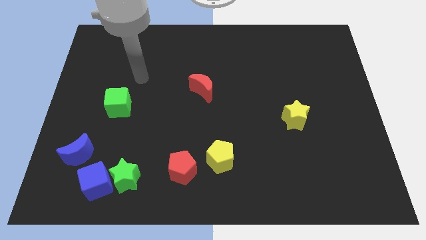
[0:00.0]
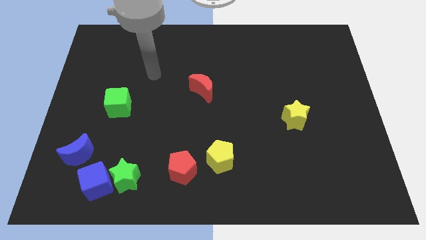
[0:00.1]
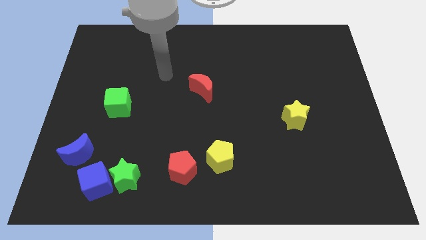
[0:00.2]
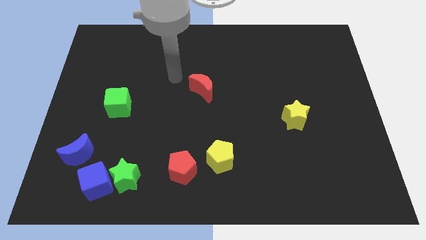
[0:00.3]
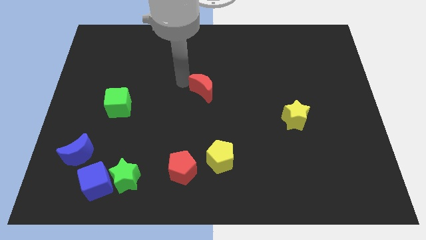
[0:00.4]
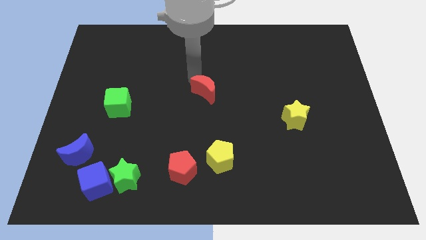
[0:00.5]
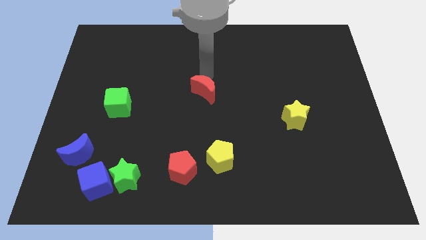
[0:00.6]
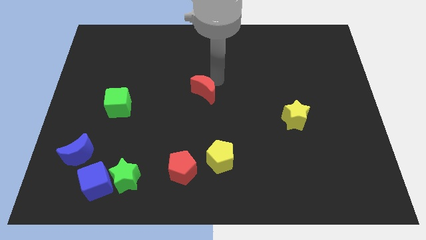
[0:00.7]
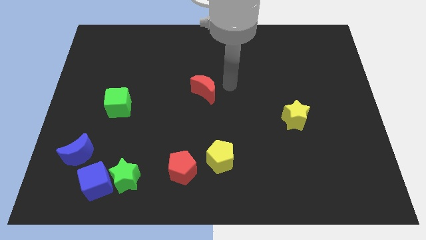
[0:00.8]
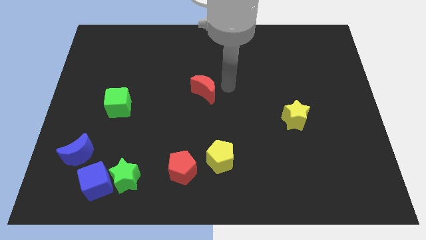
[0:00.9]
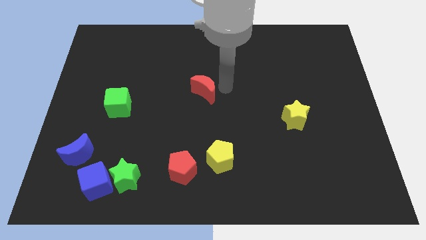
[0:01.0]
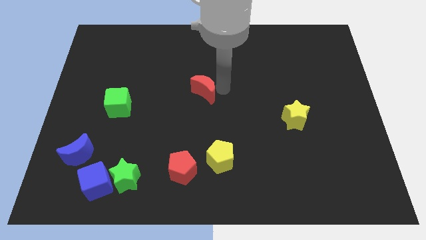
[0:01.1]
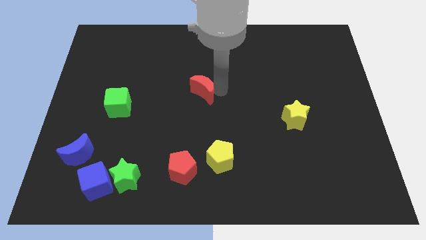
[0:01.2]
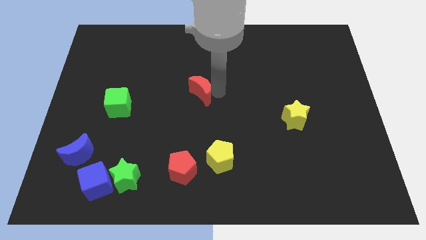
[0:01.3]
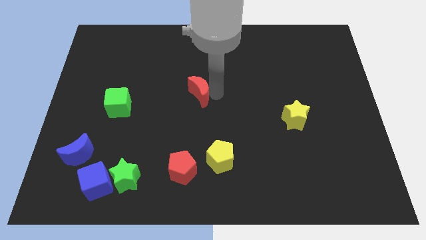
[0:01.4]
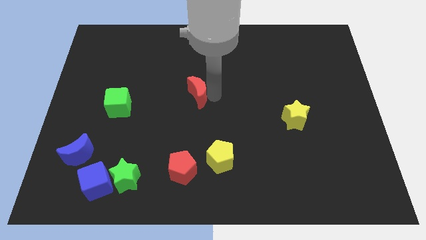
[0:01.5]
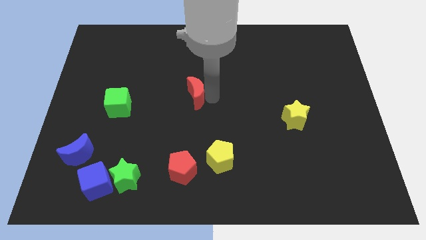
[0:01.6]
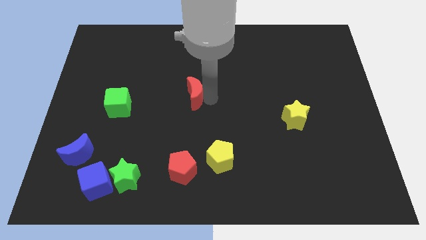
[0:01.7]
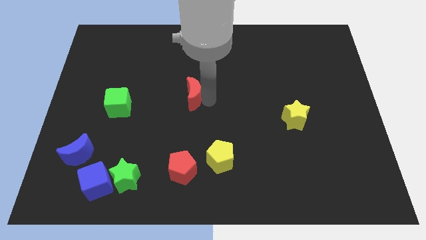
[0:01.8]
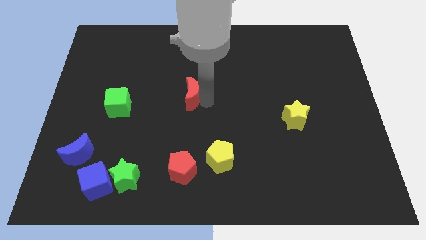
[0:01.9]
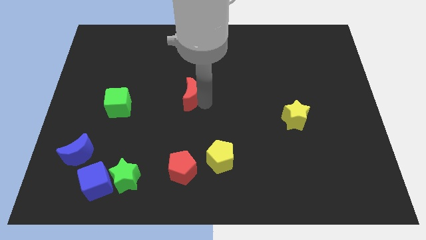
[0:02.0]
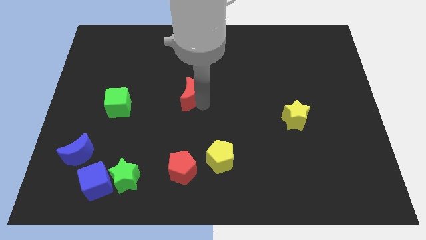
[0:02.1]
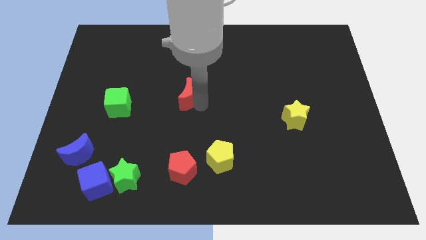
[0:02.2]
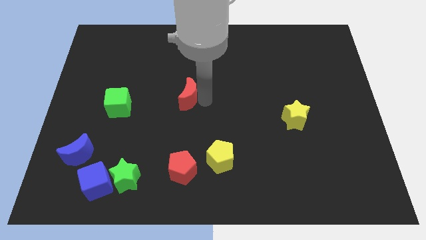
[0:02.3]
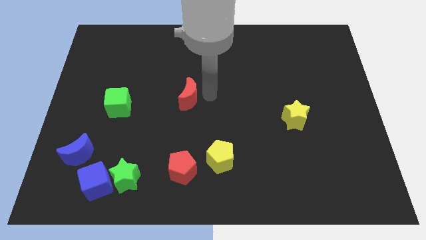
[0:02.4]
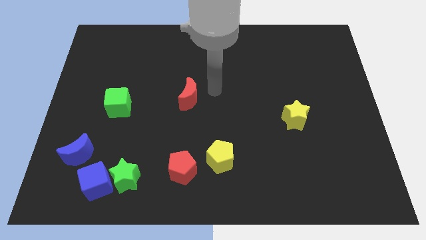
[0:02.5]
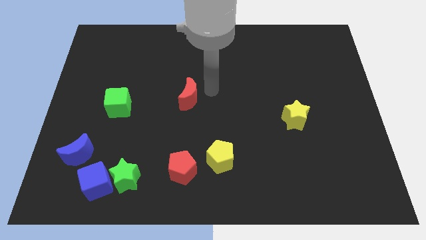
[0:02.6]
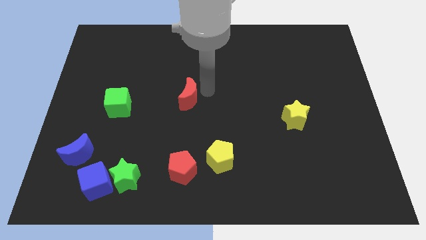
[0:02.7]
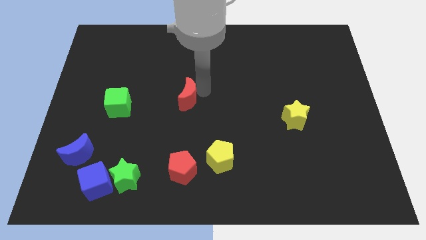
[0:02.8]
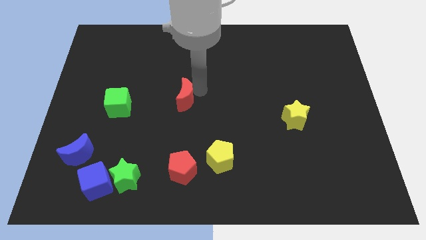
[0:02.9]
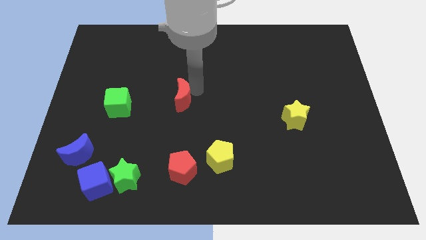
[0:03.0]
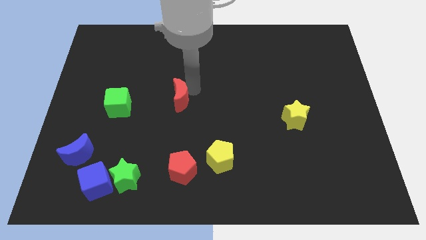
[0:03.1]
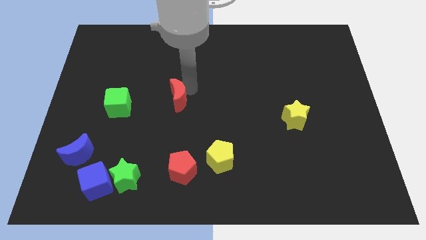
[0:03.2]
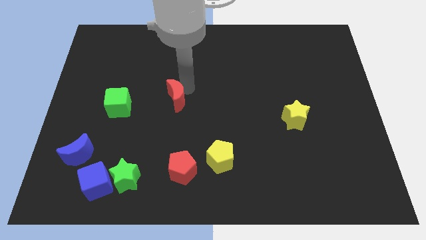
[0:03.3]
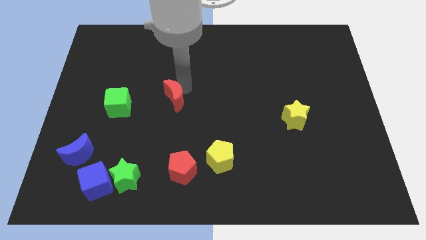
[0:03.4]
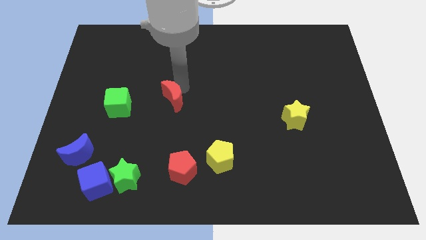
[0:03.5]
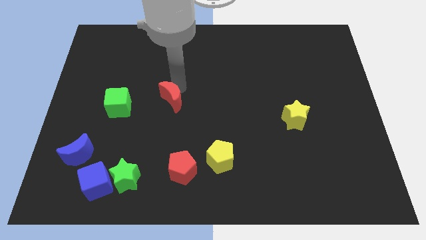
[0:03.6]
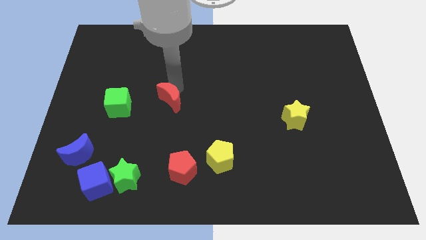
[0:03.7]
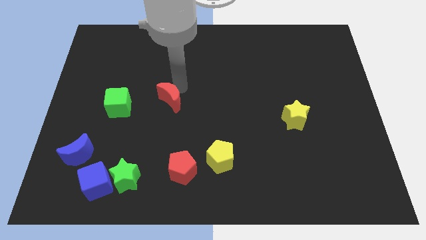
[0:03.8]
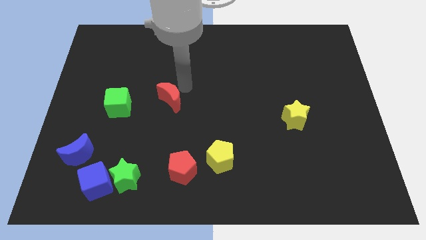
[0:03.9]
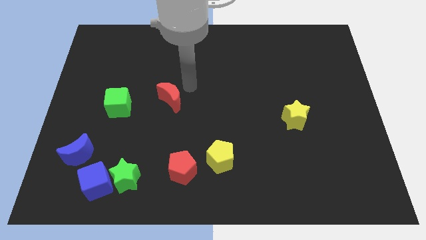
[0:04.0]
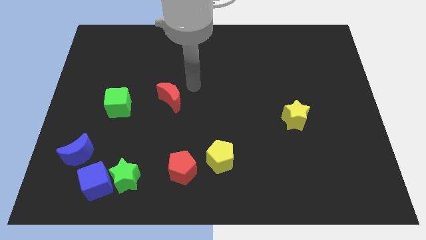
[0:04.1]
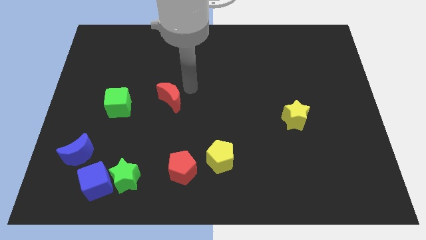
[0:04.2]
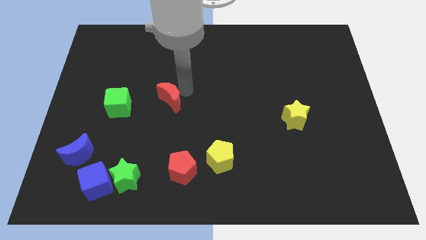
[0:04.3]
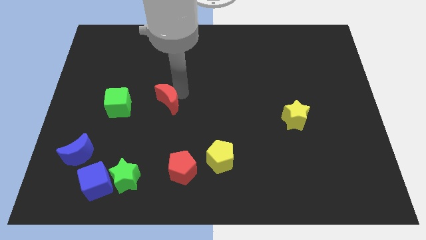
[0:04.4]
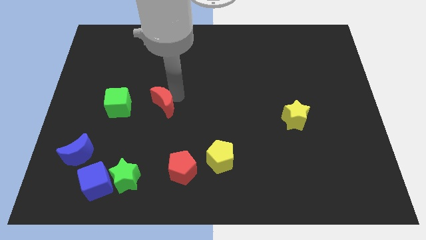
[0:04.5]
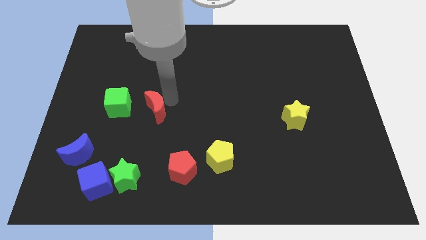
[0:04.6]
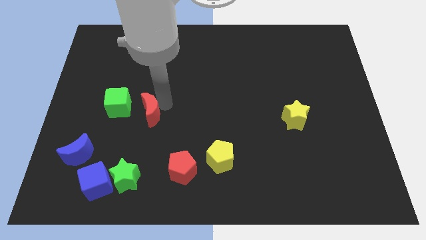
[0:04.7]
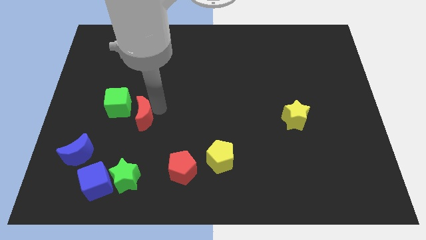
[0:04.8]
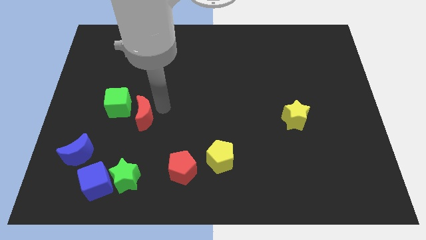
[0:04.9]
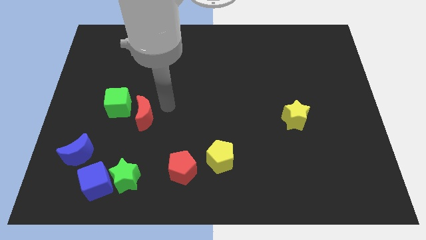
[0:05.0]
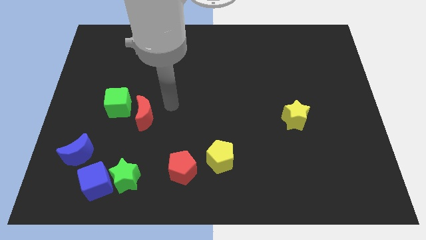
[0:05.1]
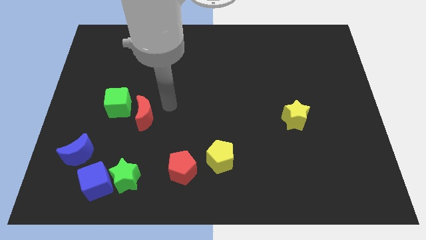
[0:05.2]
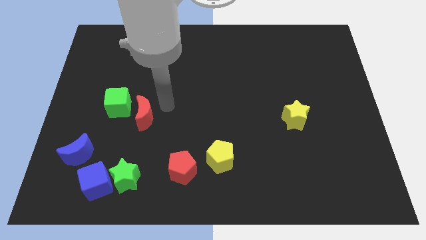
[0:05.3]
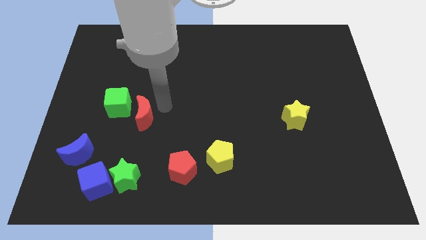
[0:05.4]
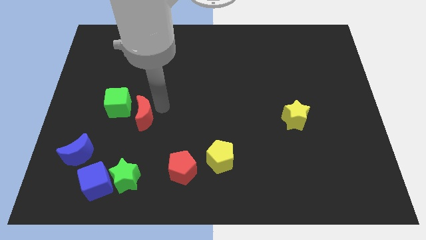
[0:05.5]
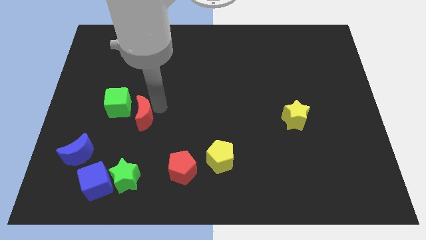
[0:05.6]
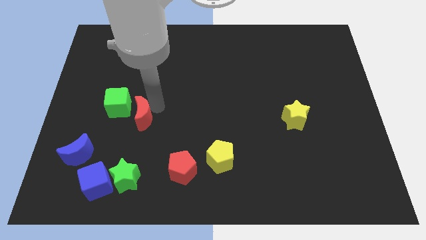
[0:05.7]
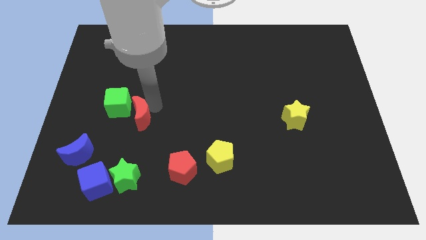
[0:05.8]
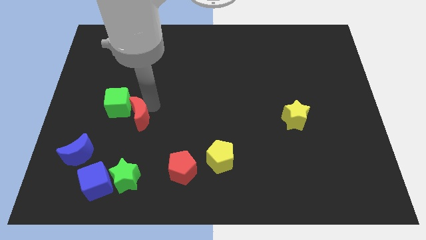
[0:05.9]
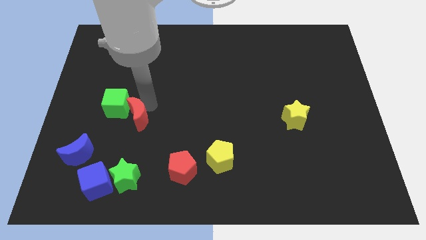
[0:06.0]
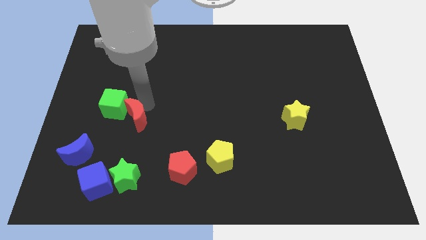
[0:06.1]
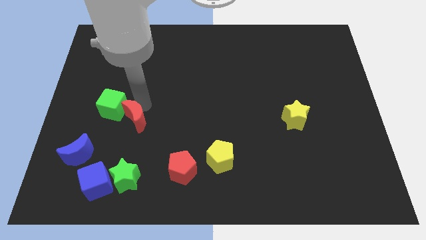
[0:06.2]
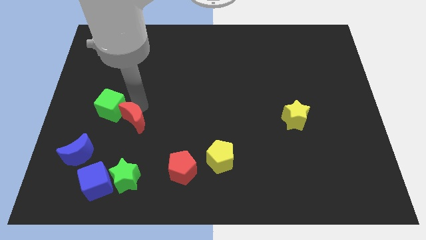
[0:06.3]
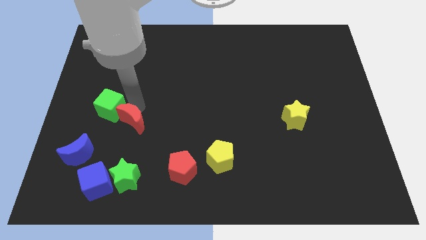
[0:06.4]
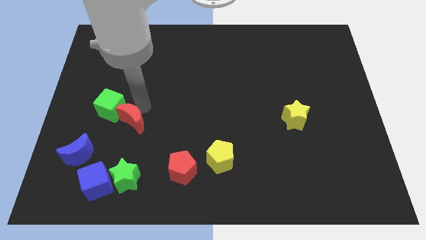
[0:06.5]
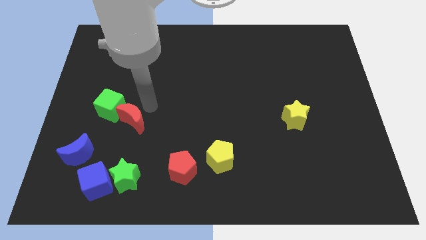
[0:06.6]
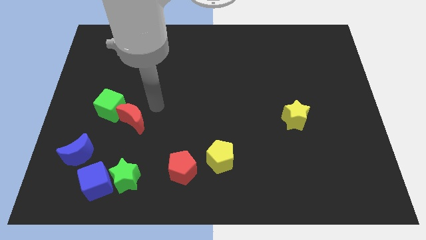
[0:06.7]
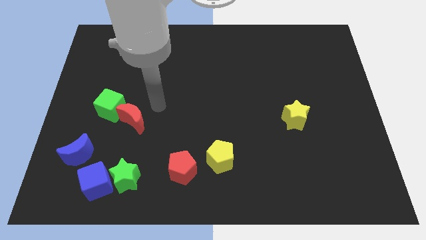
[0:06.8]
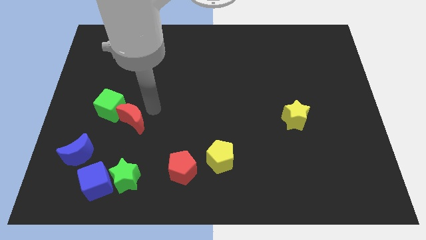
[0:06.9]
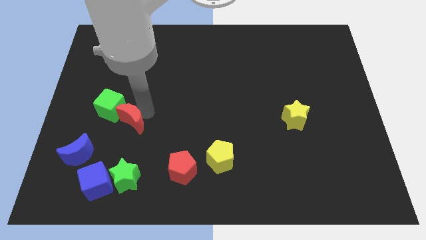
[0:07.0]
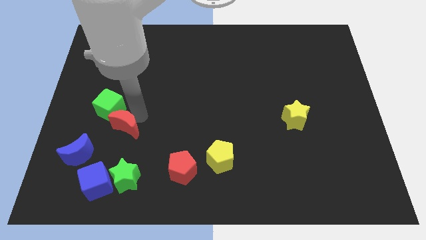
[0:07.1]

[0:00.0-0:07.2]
put the red moon diagonally up and to the right of the blue moon

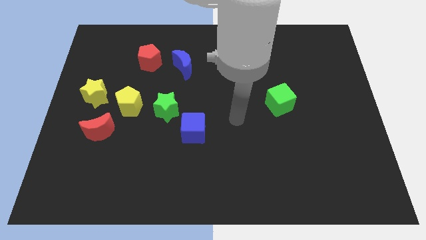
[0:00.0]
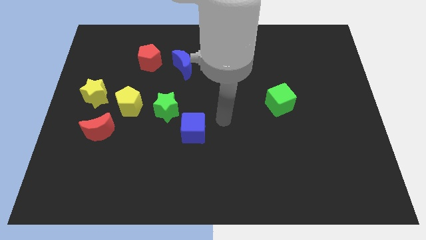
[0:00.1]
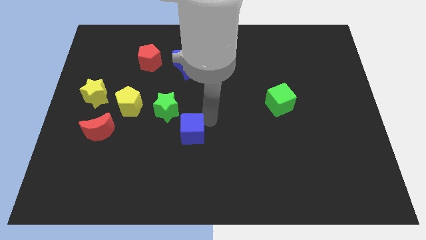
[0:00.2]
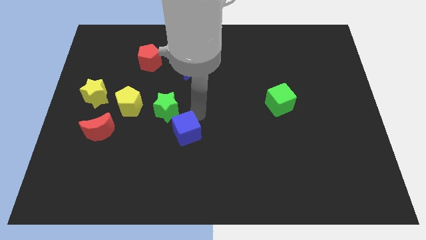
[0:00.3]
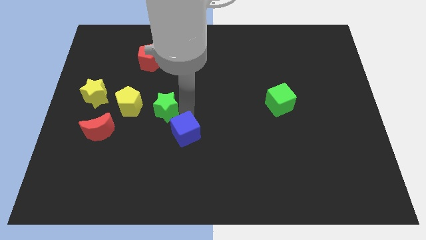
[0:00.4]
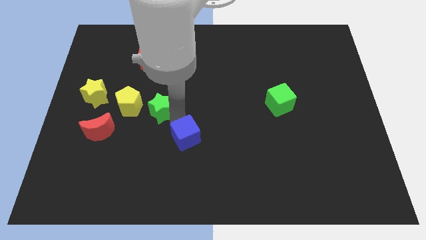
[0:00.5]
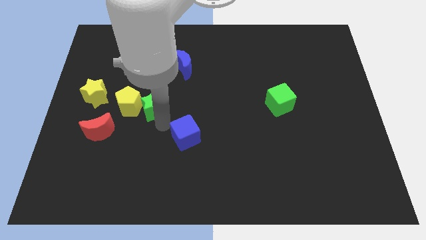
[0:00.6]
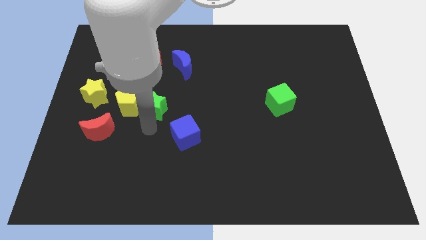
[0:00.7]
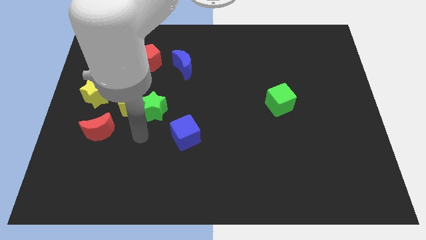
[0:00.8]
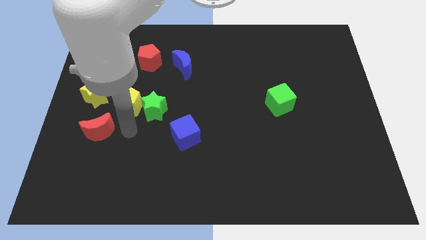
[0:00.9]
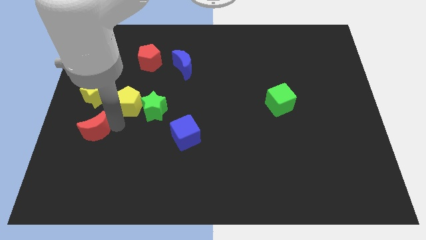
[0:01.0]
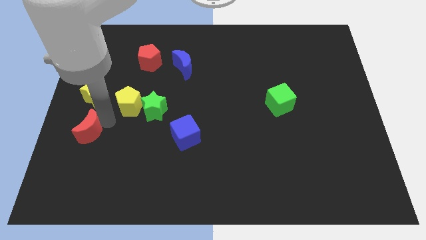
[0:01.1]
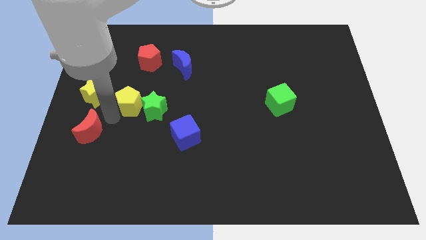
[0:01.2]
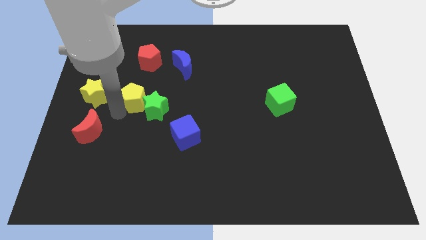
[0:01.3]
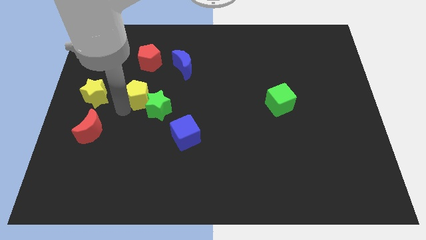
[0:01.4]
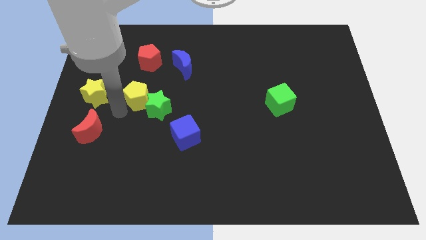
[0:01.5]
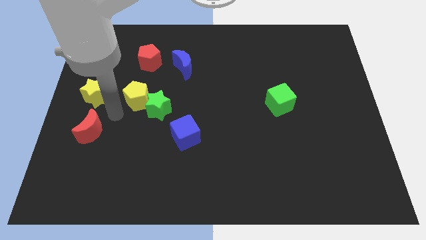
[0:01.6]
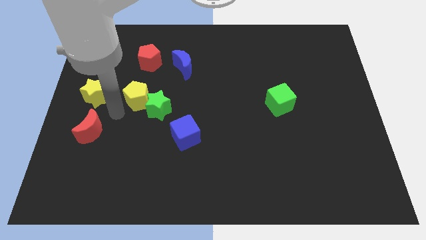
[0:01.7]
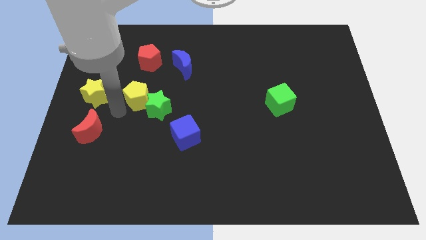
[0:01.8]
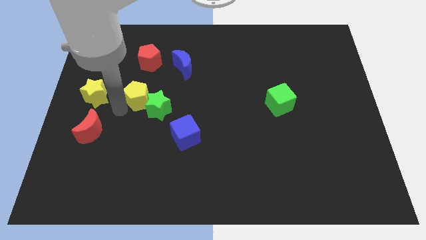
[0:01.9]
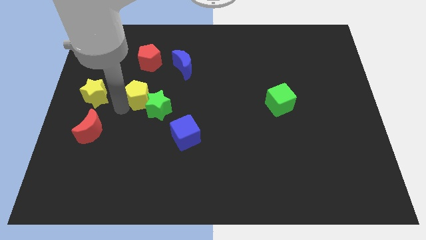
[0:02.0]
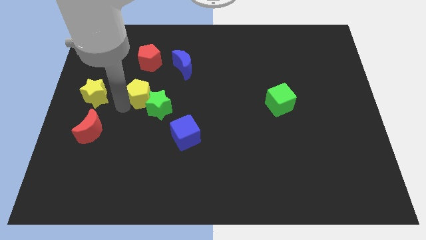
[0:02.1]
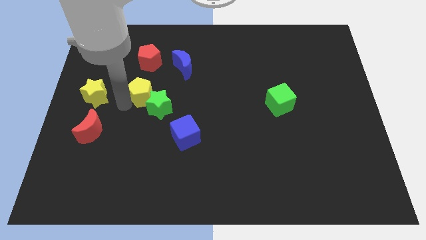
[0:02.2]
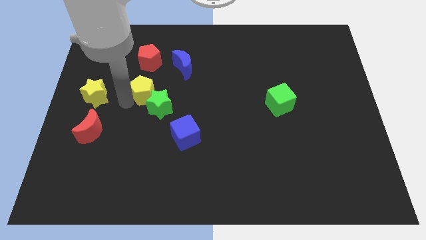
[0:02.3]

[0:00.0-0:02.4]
move the yellow pentagon to the bottom left of the blue moon
